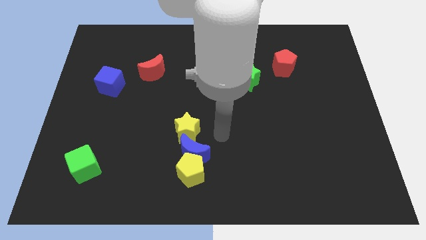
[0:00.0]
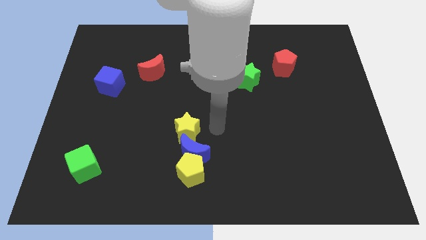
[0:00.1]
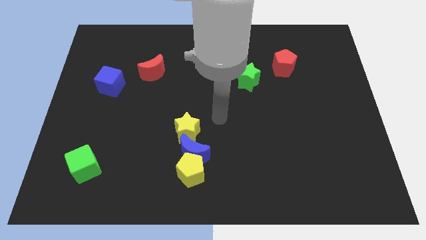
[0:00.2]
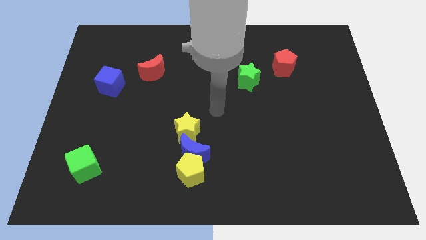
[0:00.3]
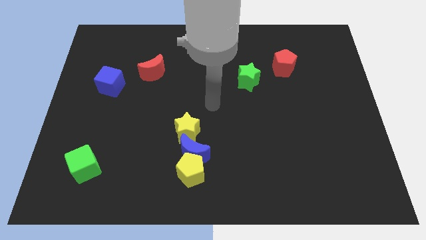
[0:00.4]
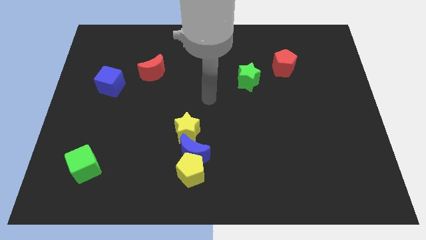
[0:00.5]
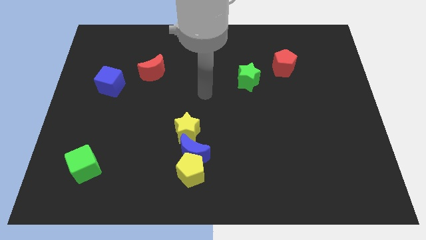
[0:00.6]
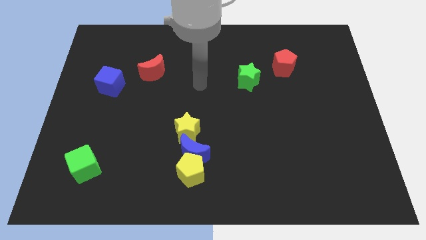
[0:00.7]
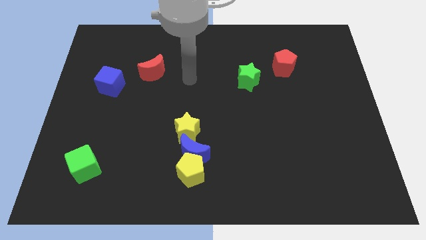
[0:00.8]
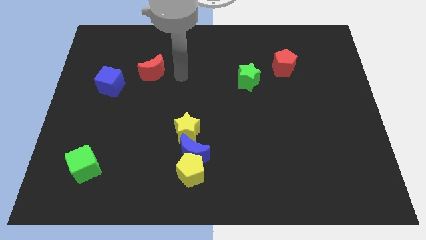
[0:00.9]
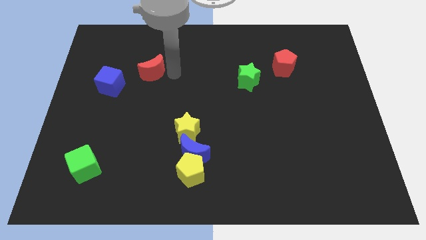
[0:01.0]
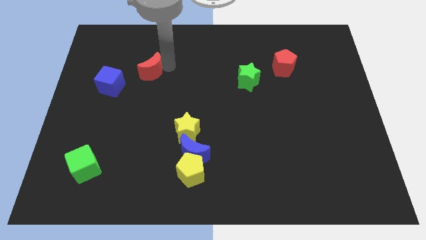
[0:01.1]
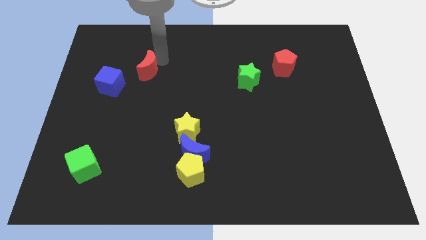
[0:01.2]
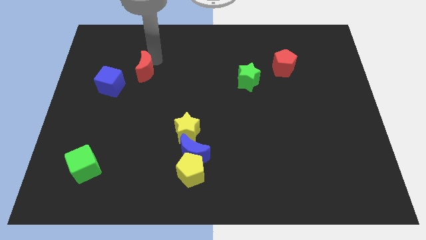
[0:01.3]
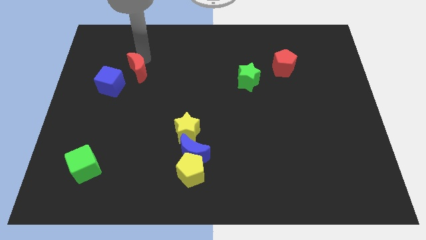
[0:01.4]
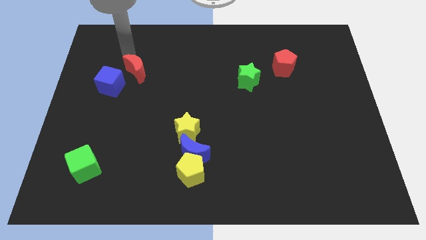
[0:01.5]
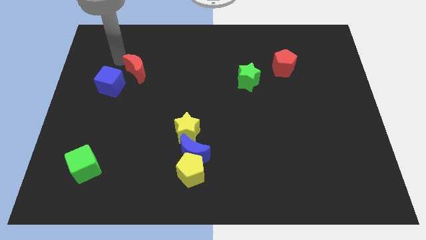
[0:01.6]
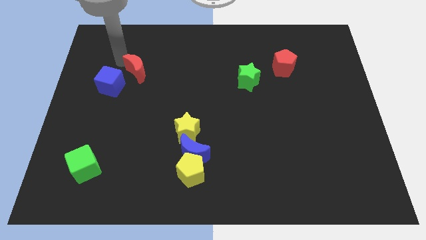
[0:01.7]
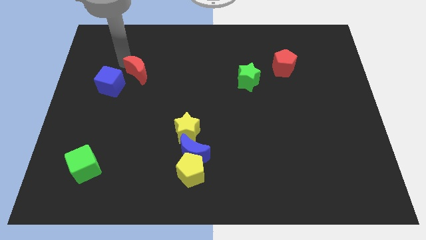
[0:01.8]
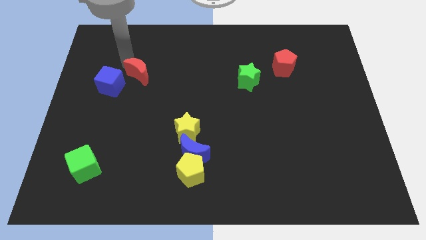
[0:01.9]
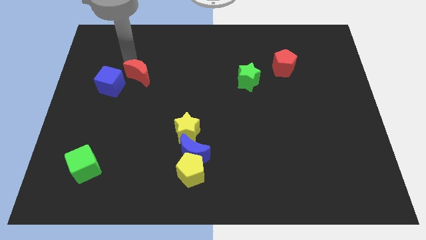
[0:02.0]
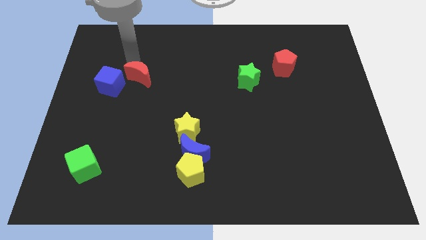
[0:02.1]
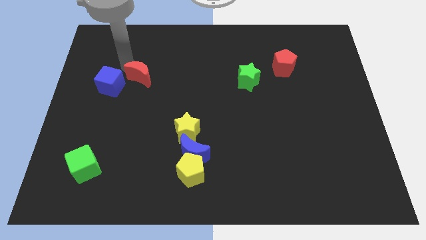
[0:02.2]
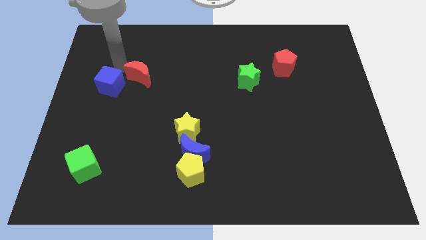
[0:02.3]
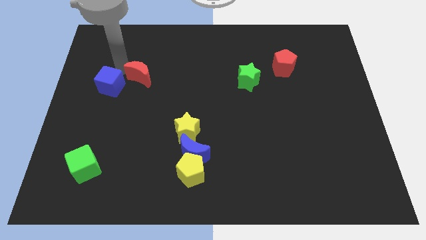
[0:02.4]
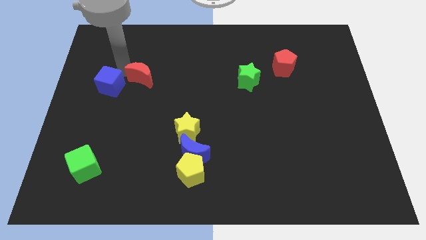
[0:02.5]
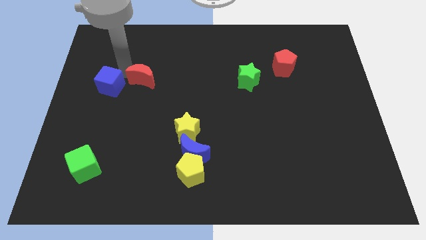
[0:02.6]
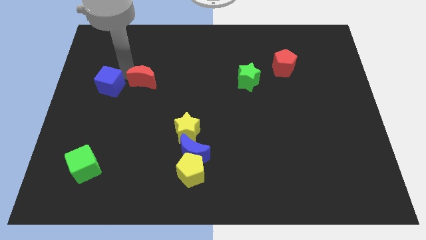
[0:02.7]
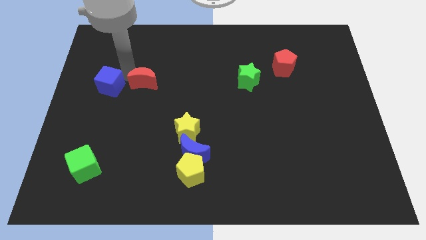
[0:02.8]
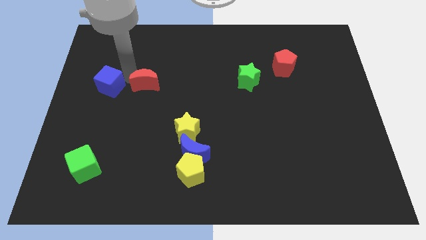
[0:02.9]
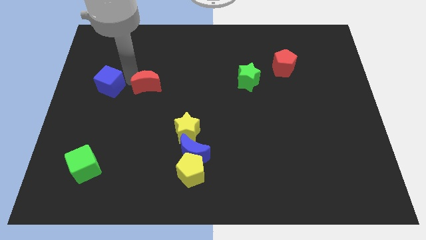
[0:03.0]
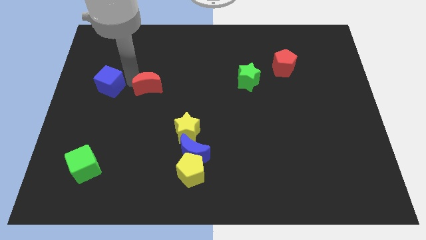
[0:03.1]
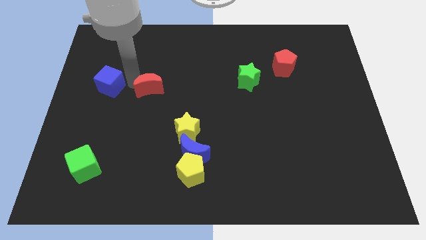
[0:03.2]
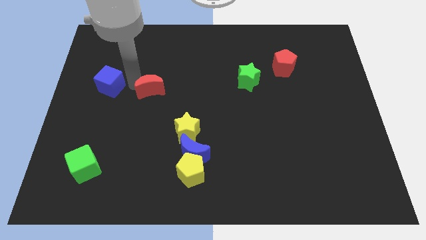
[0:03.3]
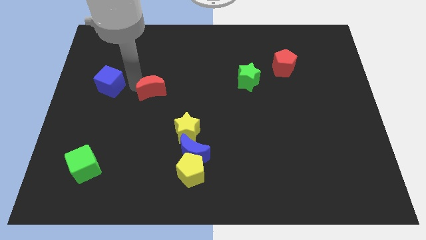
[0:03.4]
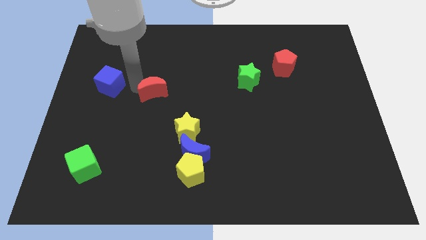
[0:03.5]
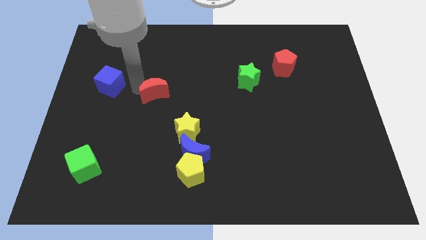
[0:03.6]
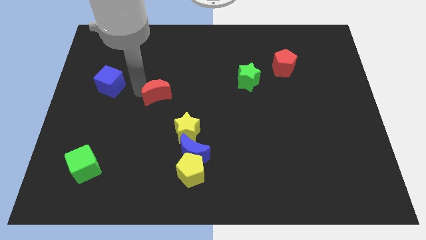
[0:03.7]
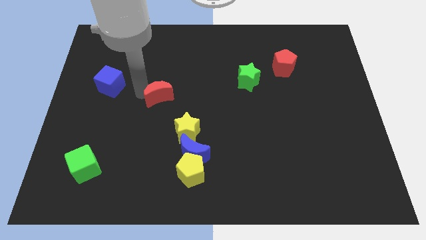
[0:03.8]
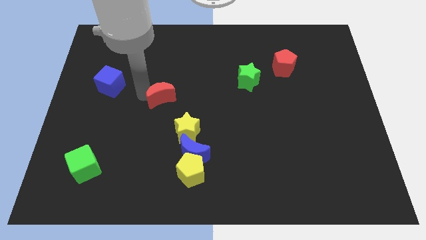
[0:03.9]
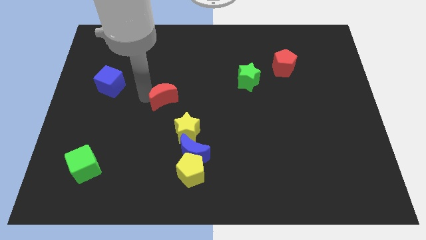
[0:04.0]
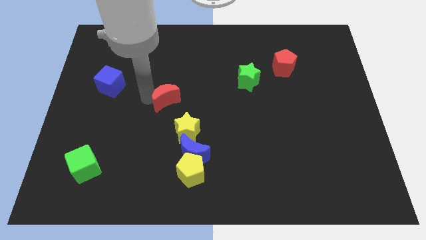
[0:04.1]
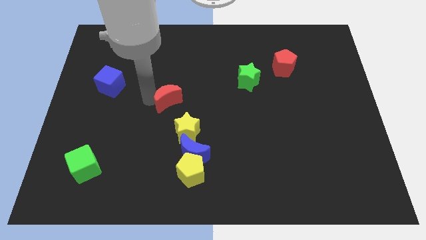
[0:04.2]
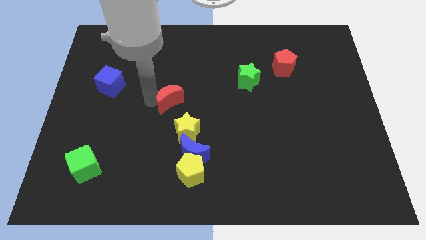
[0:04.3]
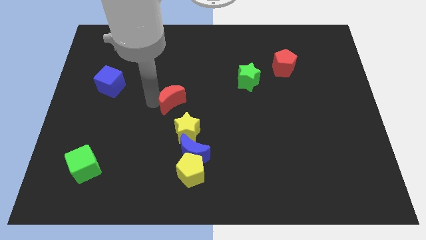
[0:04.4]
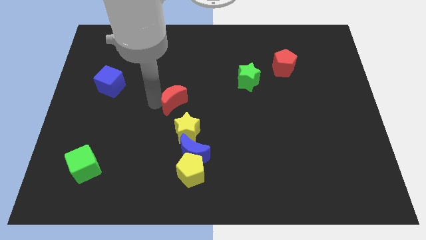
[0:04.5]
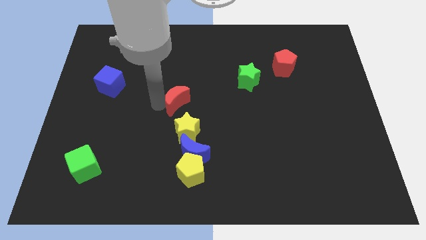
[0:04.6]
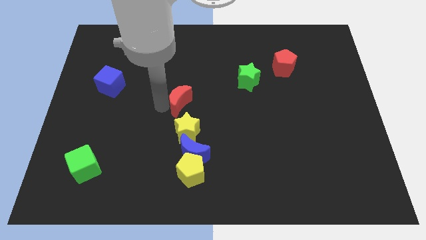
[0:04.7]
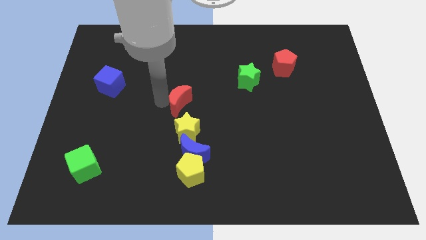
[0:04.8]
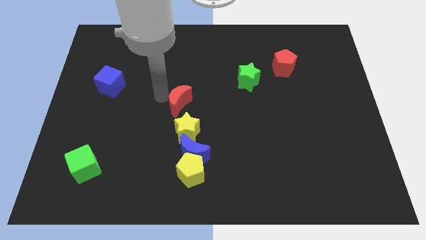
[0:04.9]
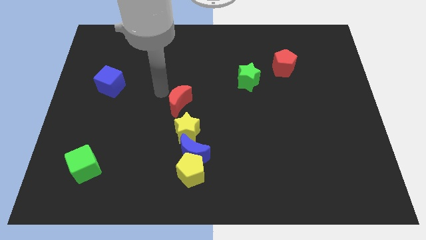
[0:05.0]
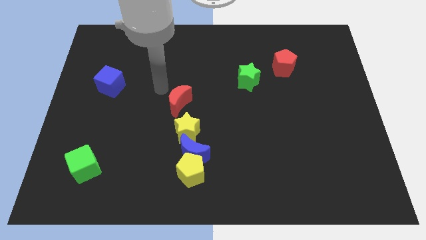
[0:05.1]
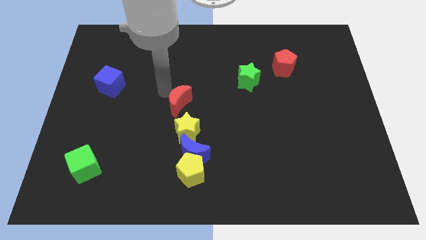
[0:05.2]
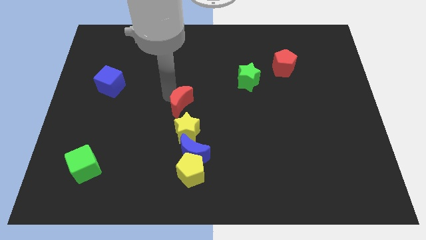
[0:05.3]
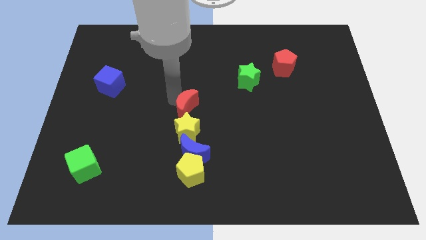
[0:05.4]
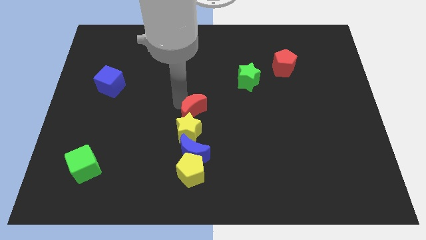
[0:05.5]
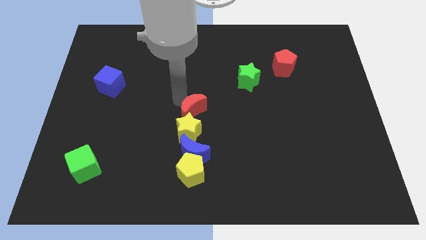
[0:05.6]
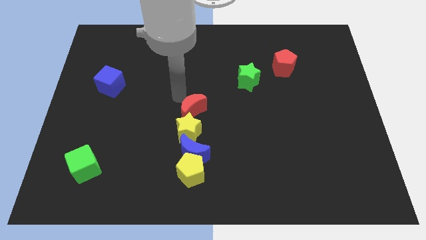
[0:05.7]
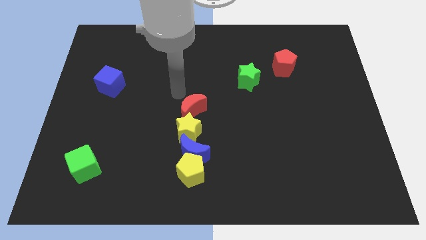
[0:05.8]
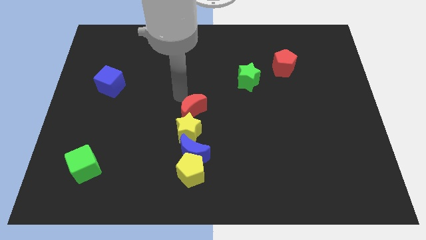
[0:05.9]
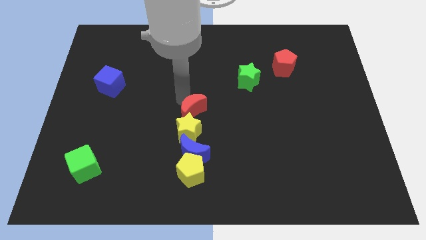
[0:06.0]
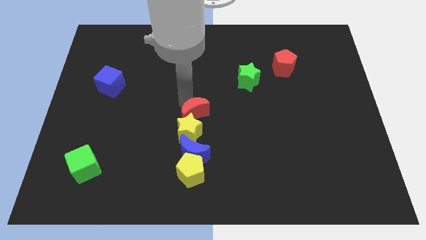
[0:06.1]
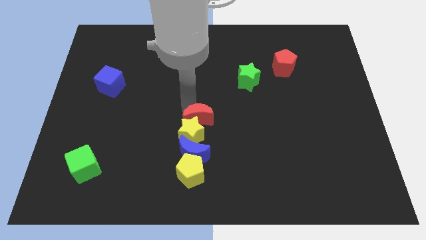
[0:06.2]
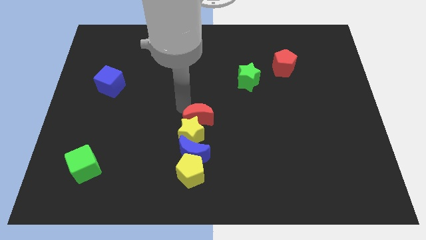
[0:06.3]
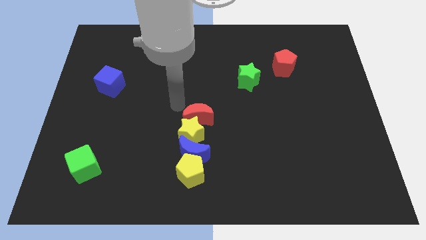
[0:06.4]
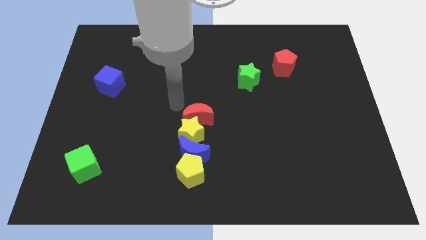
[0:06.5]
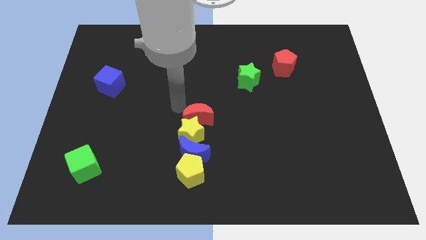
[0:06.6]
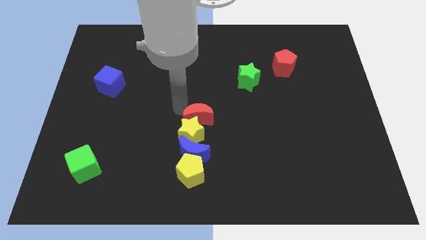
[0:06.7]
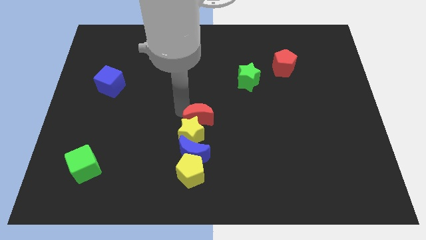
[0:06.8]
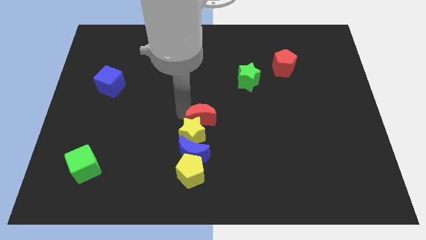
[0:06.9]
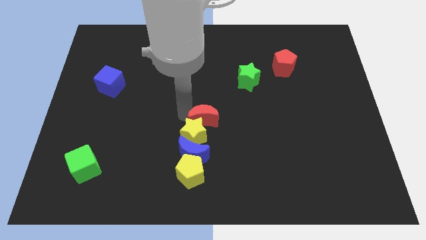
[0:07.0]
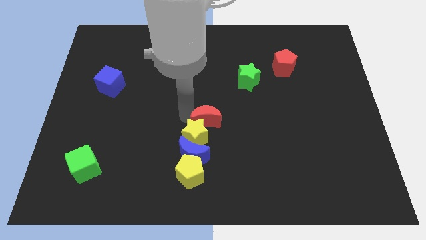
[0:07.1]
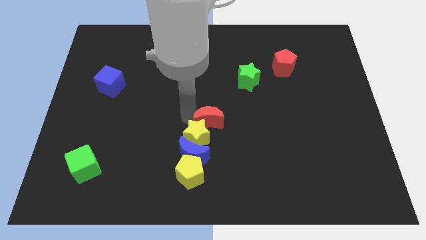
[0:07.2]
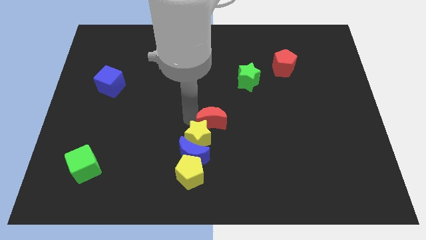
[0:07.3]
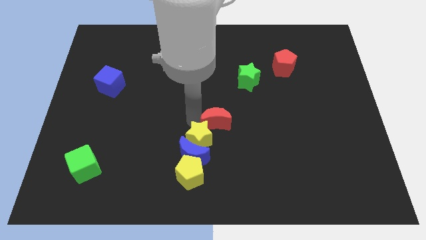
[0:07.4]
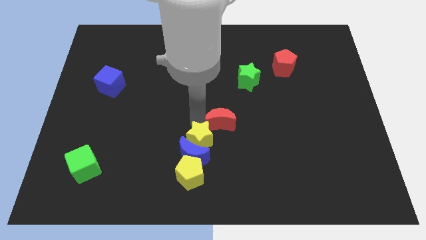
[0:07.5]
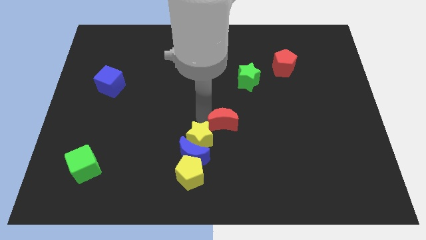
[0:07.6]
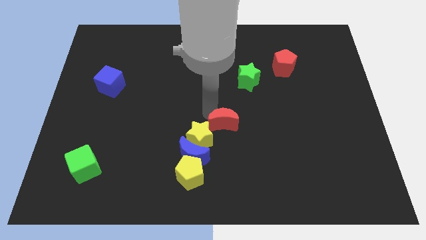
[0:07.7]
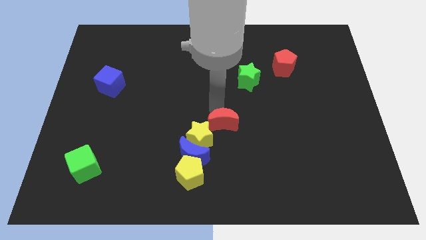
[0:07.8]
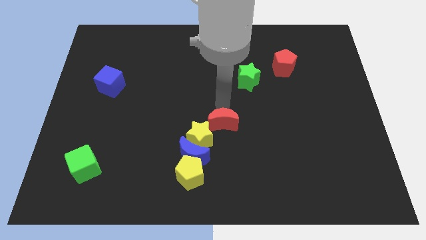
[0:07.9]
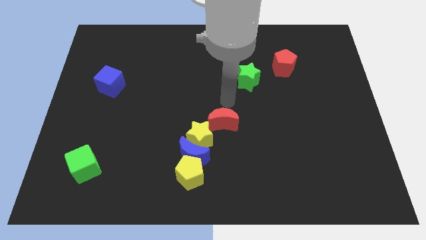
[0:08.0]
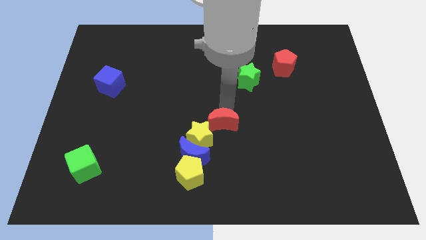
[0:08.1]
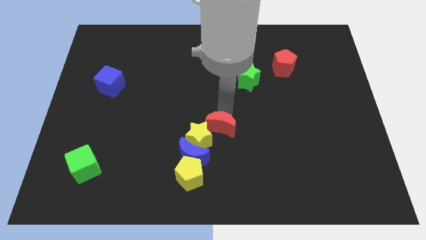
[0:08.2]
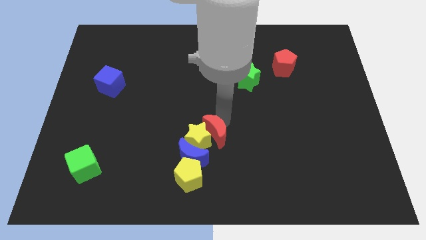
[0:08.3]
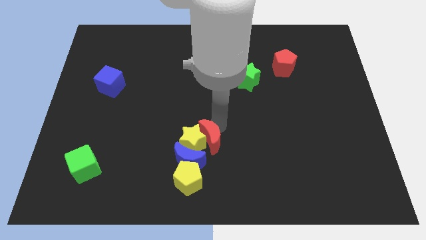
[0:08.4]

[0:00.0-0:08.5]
put the red moon diagonally up and to the right of the yellow pentagon
